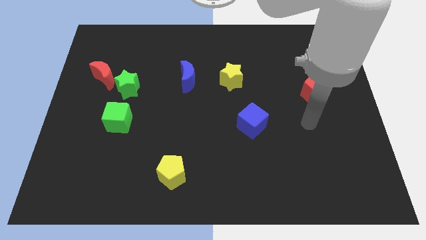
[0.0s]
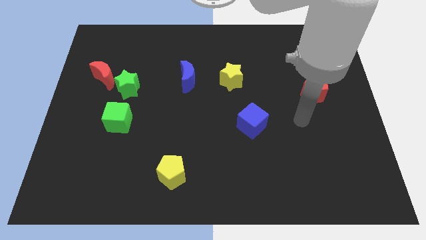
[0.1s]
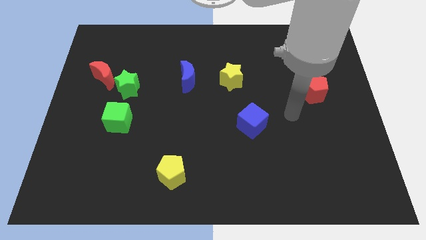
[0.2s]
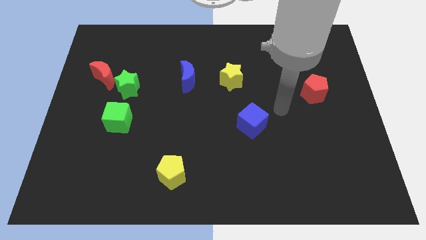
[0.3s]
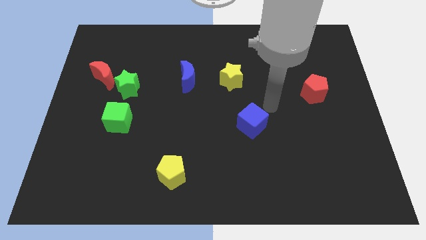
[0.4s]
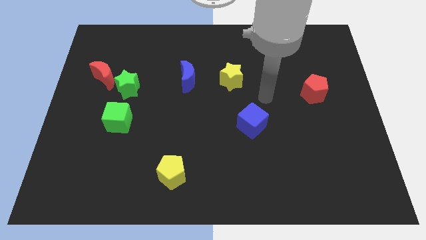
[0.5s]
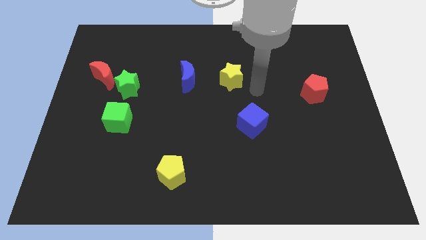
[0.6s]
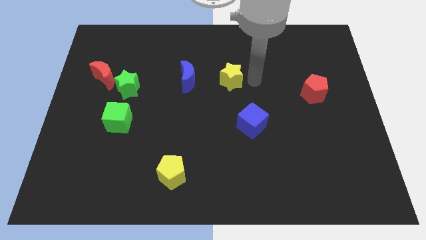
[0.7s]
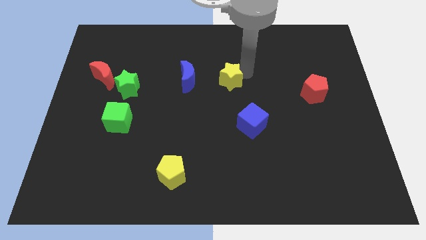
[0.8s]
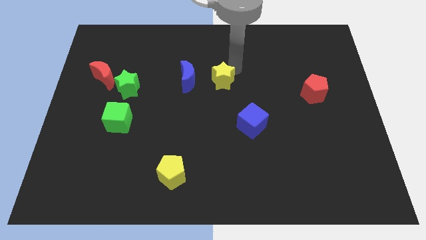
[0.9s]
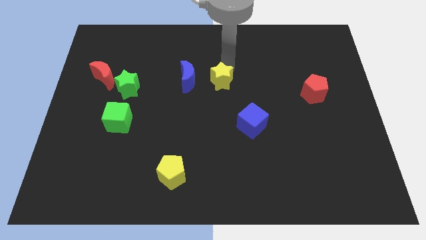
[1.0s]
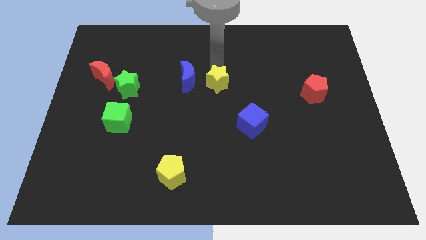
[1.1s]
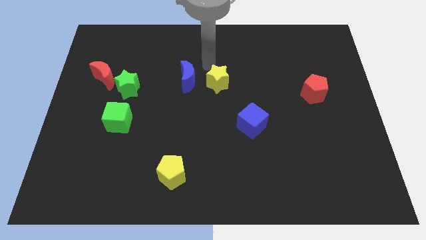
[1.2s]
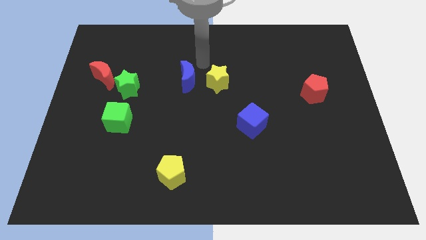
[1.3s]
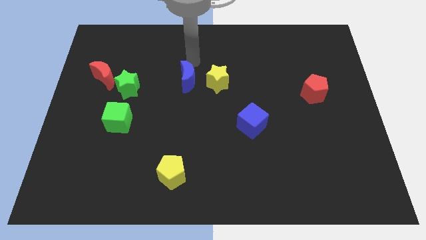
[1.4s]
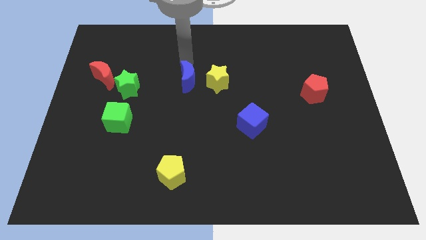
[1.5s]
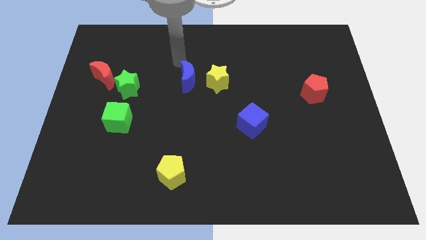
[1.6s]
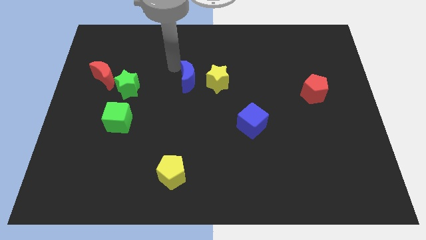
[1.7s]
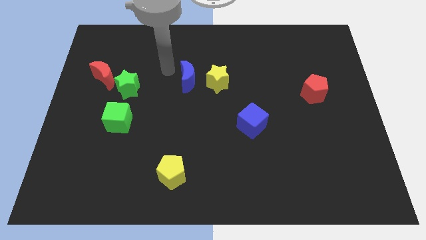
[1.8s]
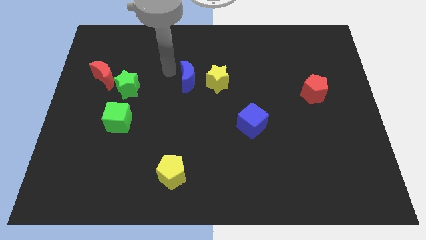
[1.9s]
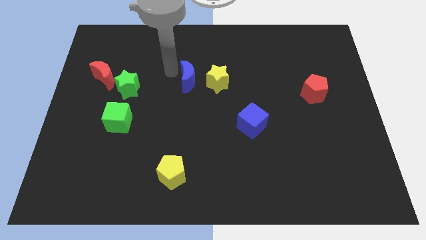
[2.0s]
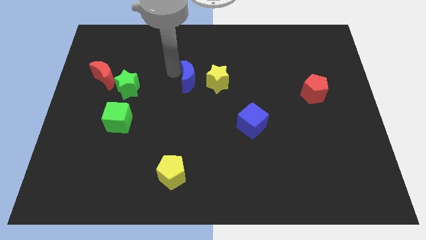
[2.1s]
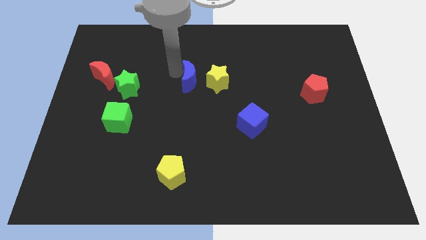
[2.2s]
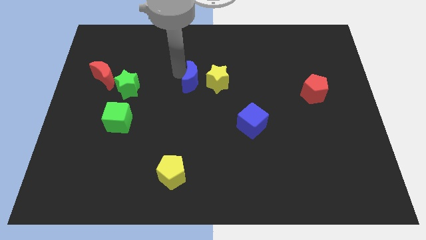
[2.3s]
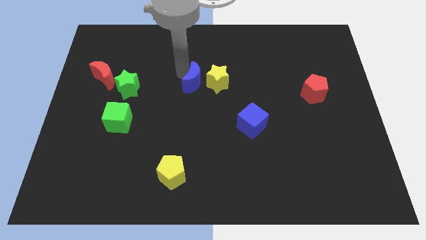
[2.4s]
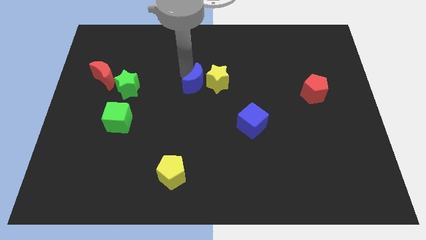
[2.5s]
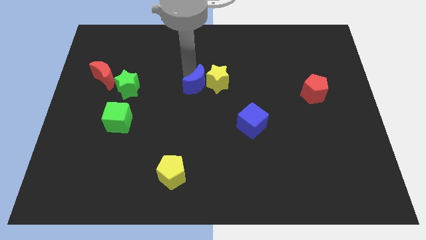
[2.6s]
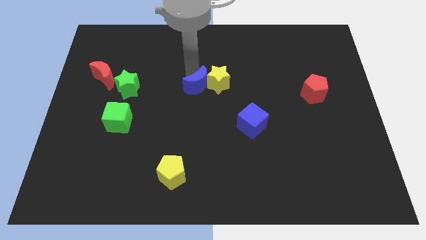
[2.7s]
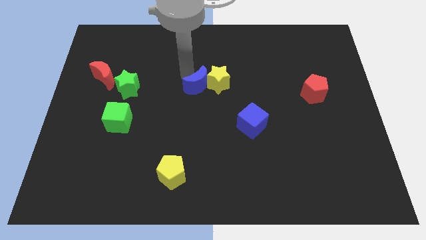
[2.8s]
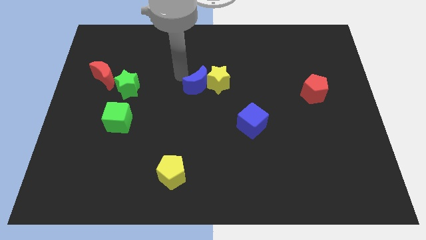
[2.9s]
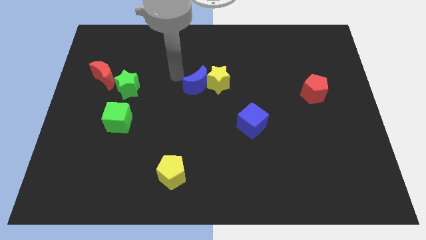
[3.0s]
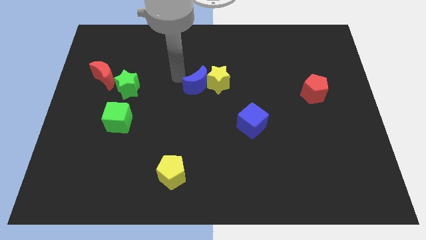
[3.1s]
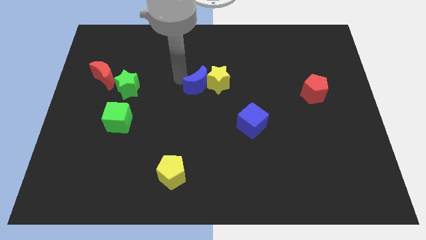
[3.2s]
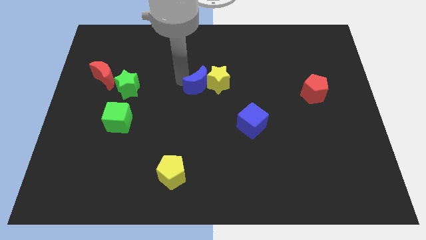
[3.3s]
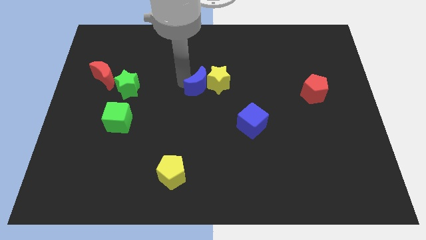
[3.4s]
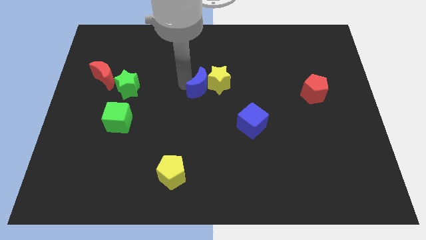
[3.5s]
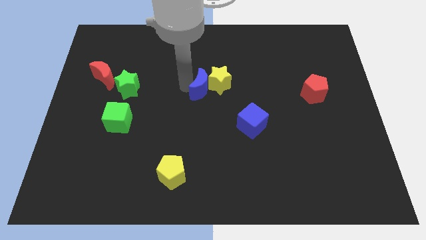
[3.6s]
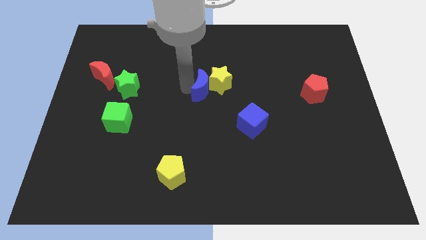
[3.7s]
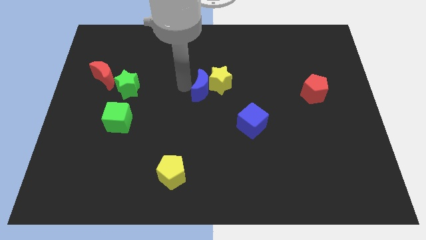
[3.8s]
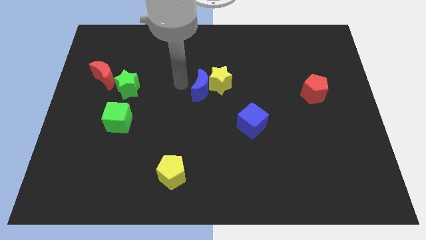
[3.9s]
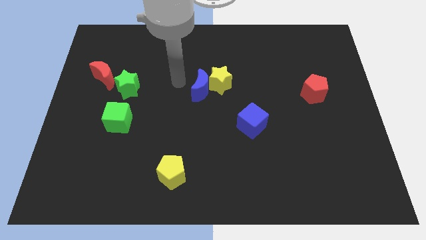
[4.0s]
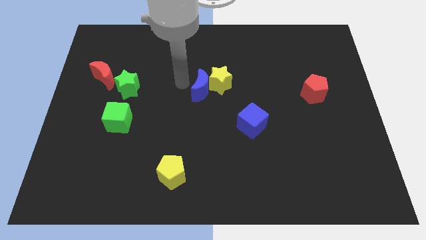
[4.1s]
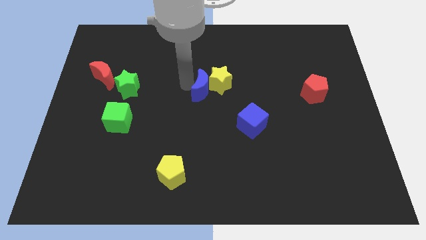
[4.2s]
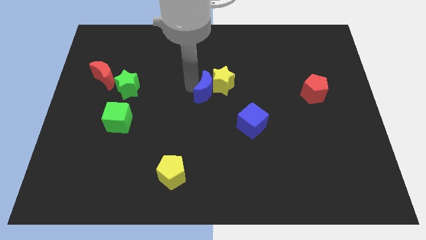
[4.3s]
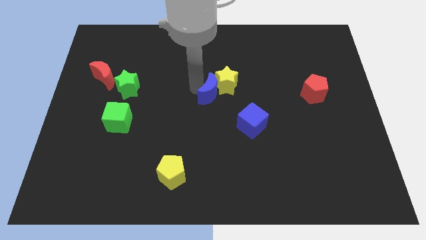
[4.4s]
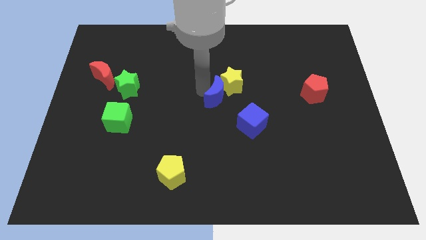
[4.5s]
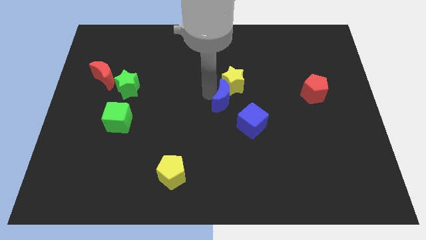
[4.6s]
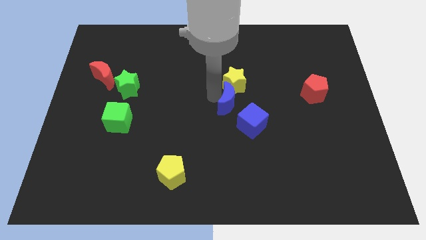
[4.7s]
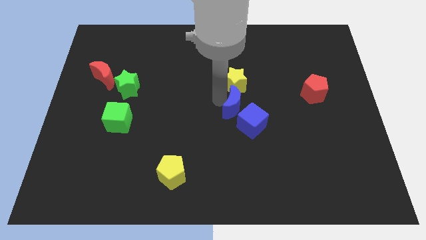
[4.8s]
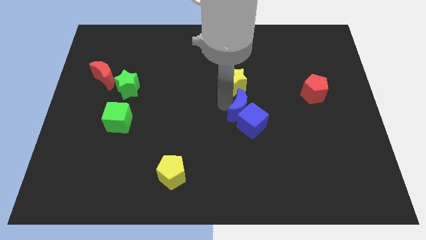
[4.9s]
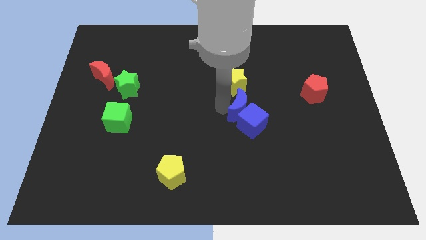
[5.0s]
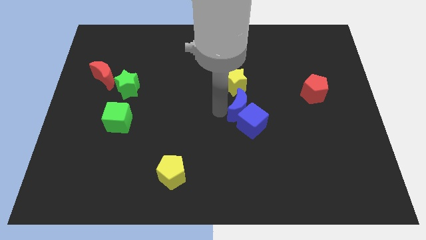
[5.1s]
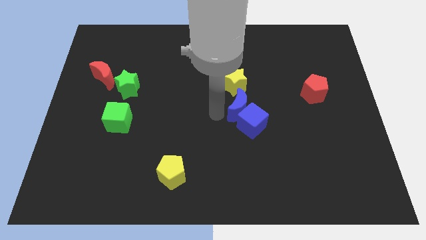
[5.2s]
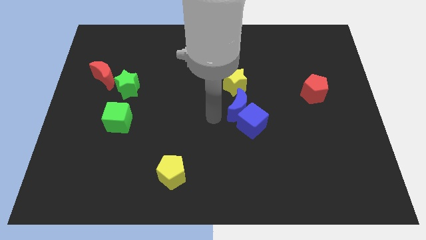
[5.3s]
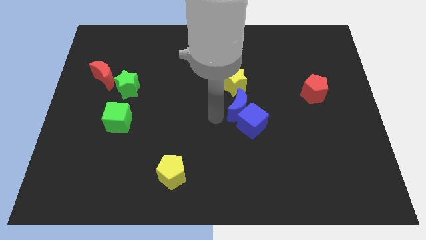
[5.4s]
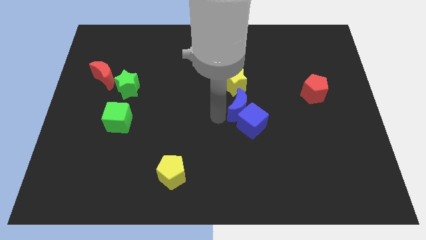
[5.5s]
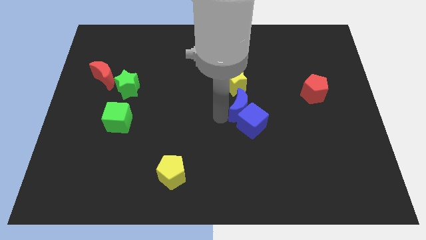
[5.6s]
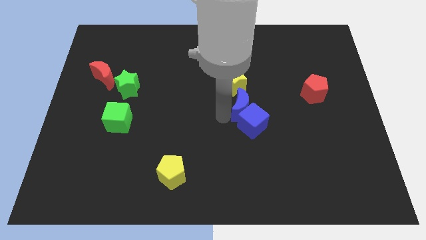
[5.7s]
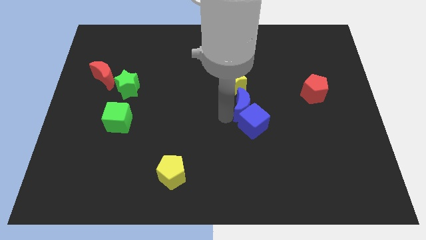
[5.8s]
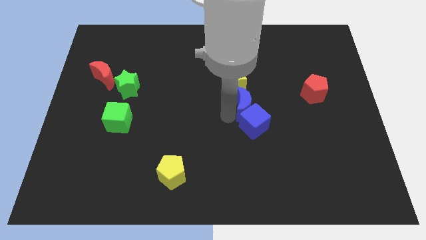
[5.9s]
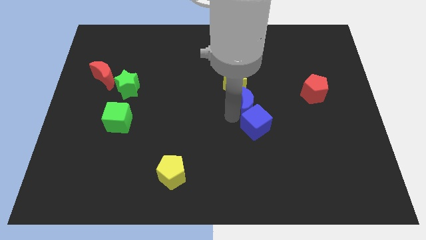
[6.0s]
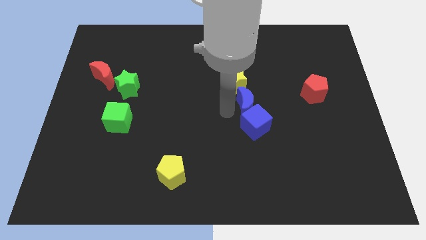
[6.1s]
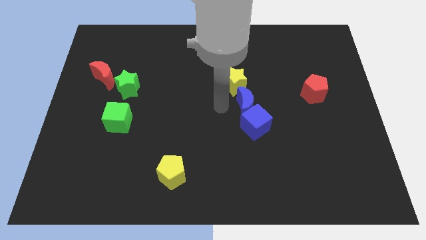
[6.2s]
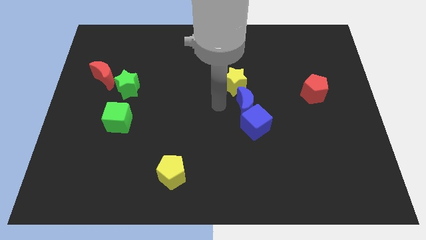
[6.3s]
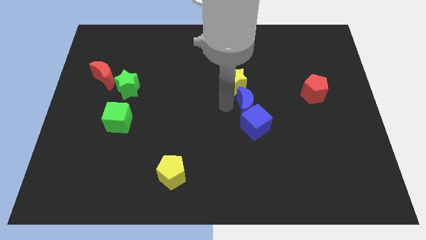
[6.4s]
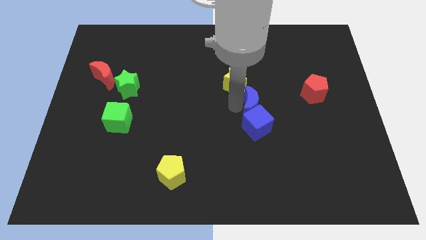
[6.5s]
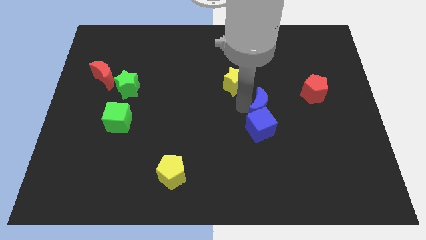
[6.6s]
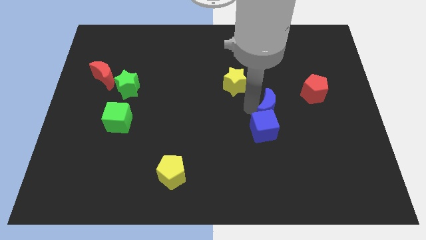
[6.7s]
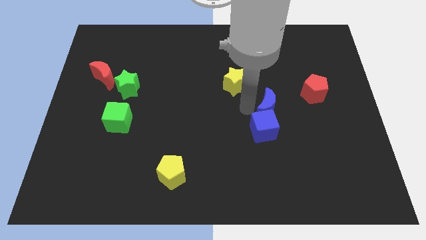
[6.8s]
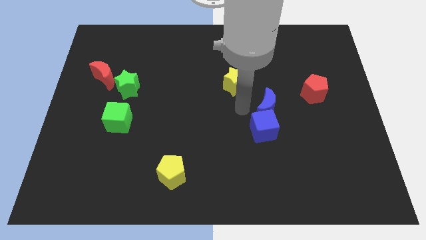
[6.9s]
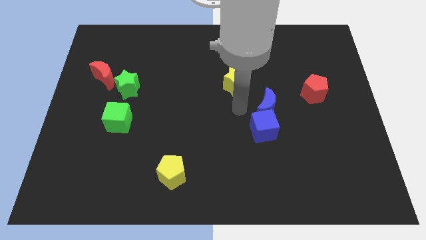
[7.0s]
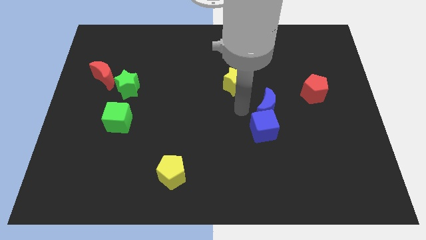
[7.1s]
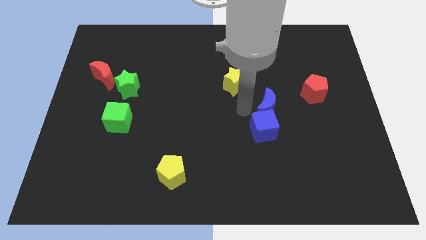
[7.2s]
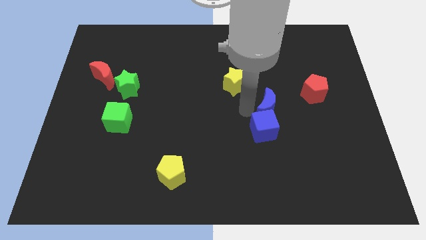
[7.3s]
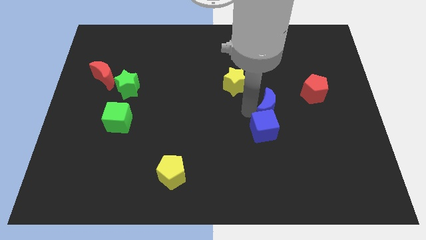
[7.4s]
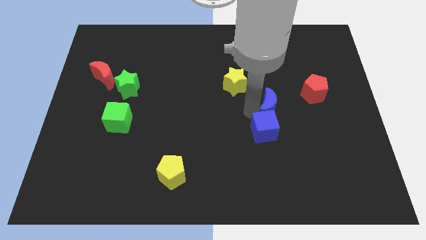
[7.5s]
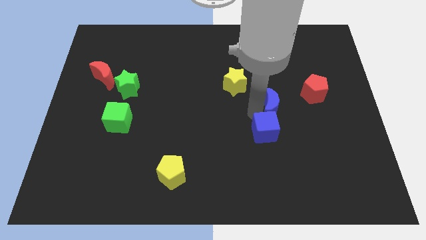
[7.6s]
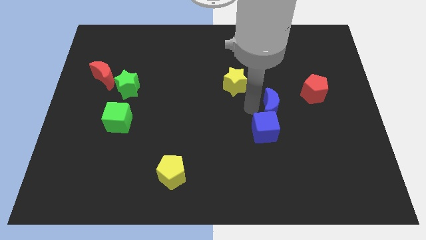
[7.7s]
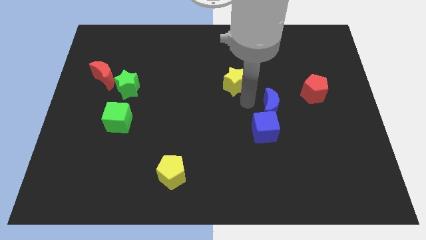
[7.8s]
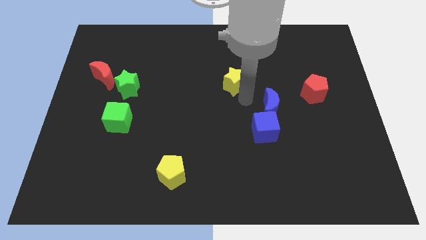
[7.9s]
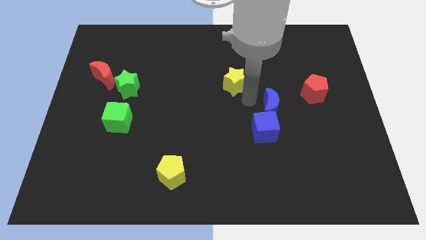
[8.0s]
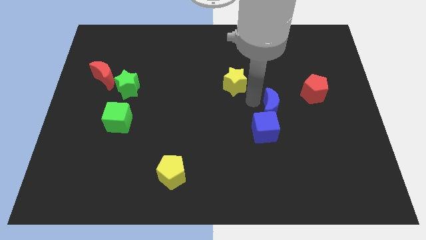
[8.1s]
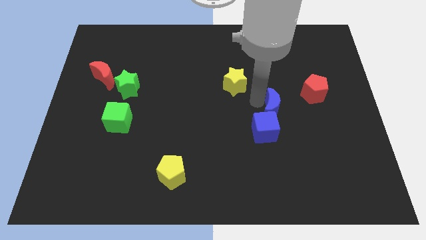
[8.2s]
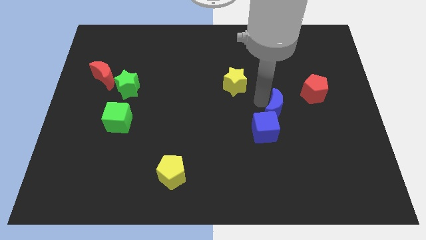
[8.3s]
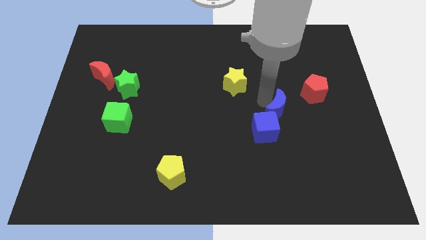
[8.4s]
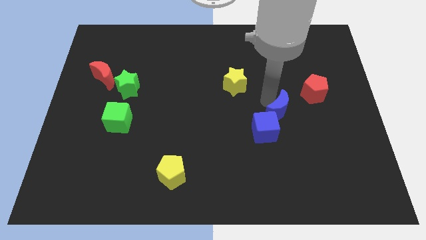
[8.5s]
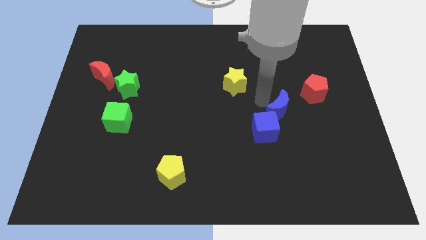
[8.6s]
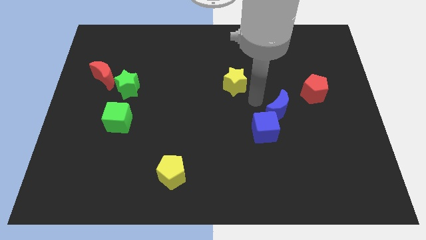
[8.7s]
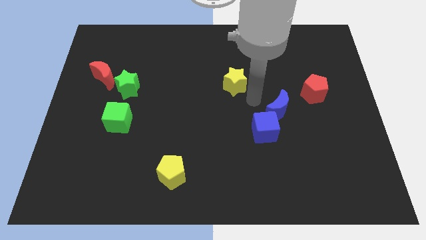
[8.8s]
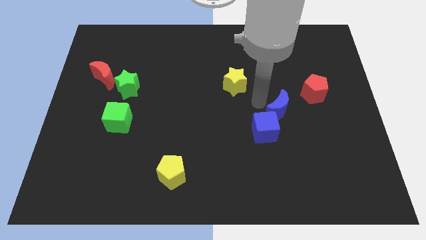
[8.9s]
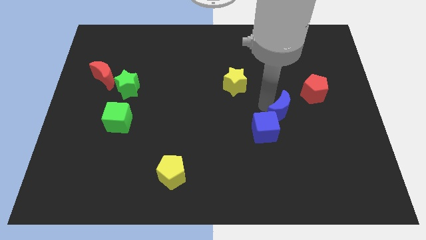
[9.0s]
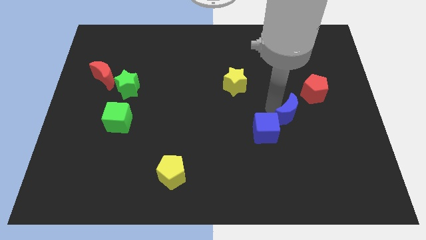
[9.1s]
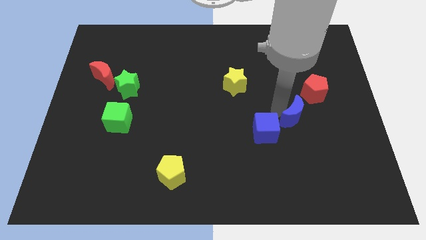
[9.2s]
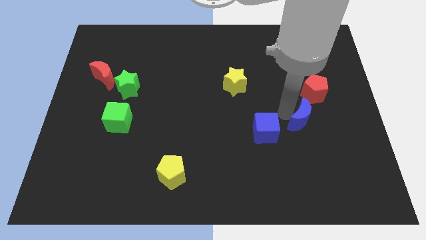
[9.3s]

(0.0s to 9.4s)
move the blue moon to the bottom side of the red pentagon
